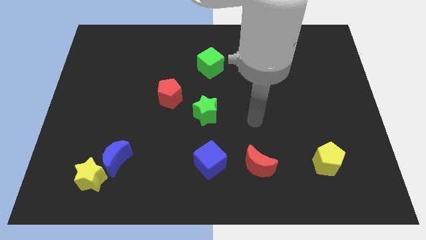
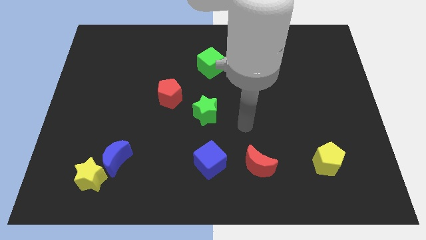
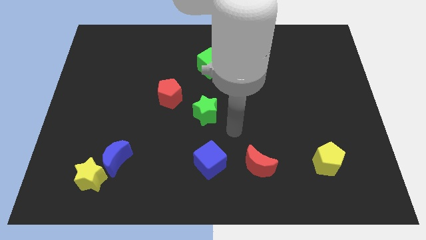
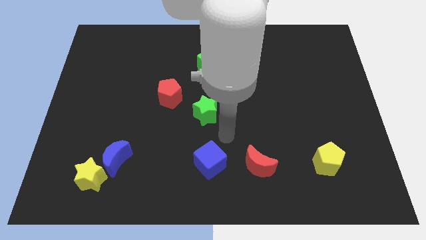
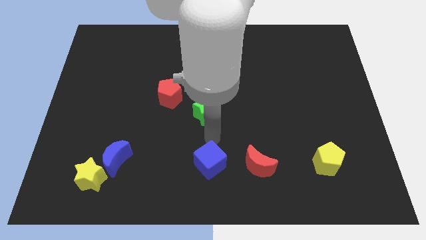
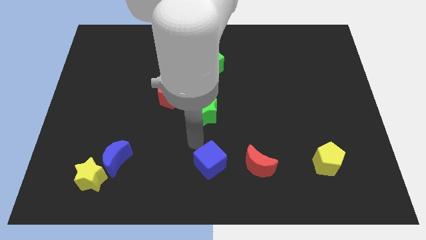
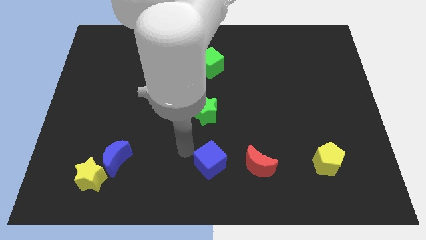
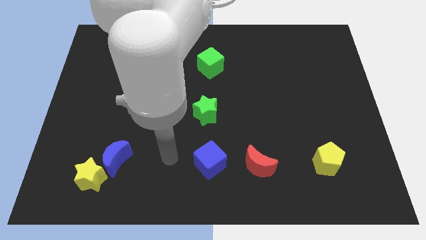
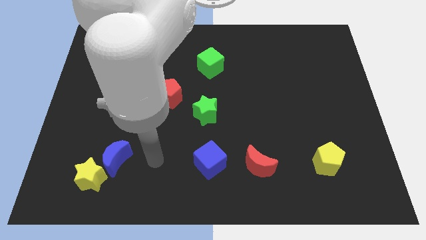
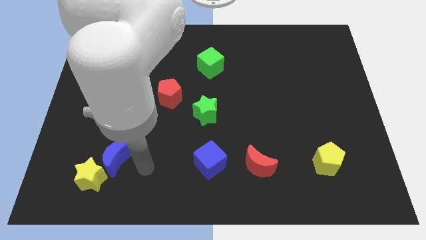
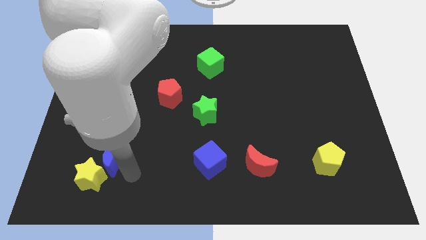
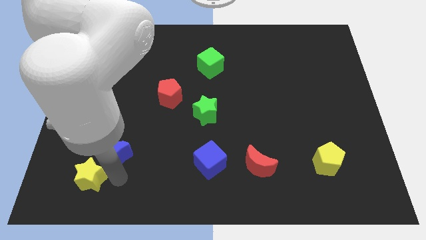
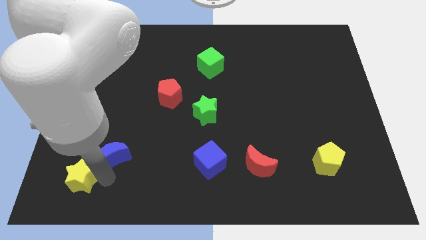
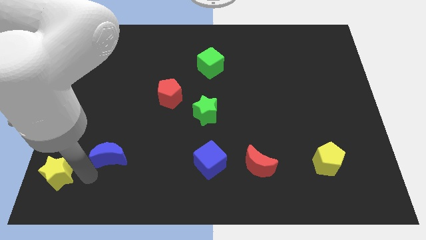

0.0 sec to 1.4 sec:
pull the blue moon apart from the yellow star

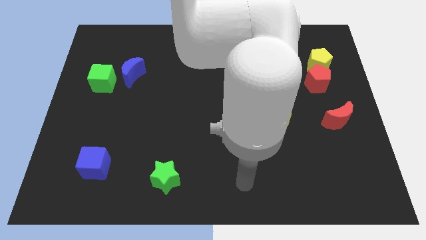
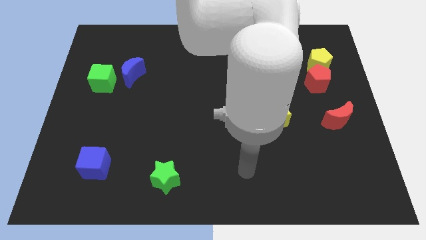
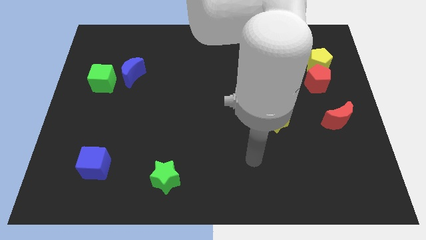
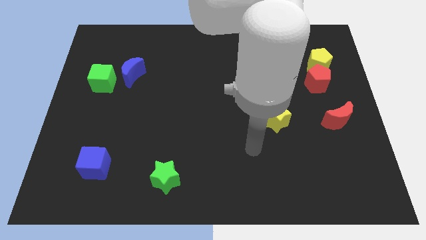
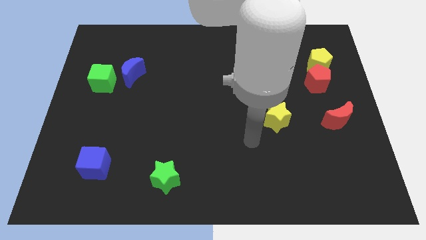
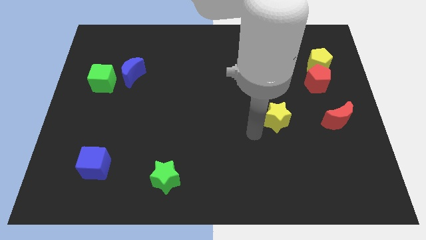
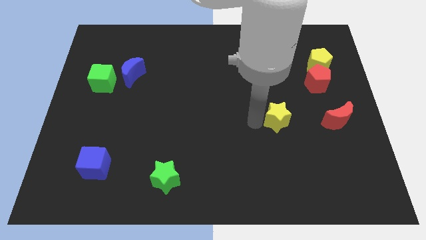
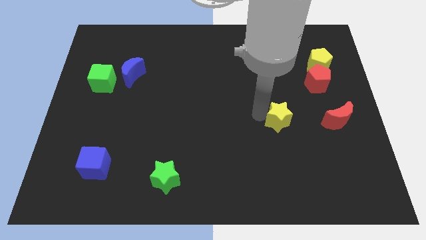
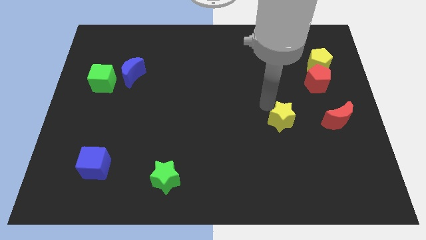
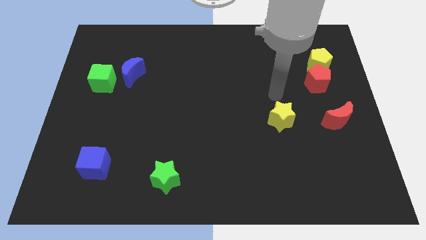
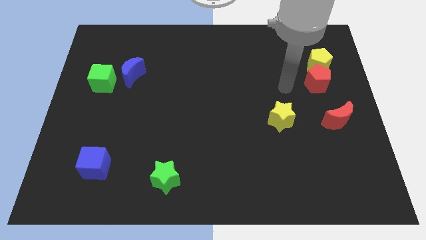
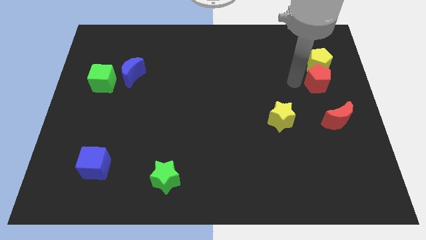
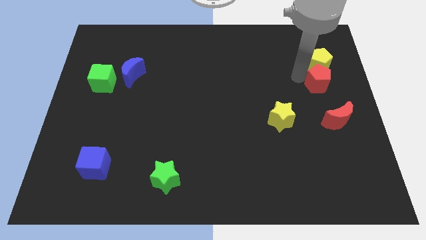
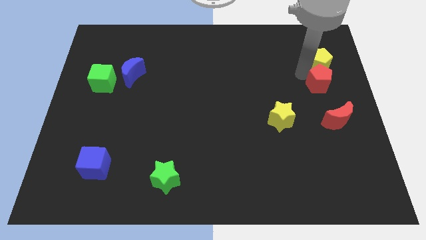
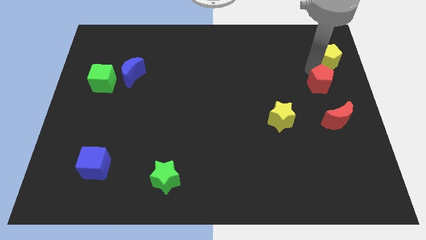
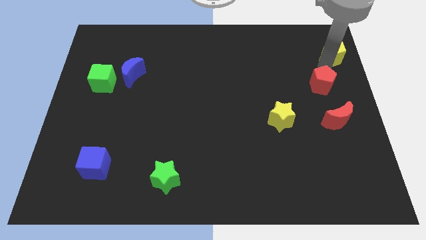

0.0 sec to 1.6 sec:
pull the red pentagon apart from the yellow pentagon

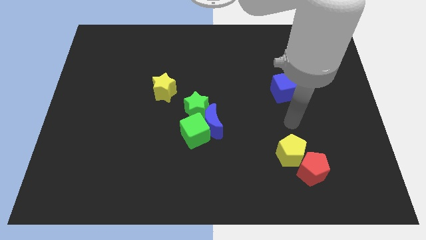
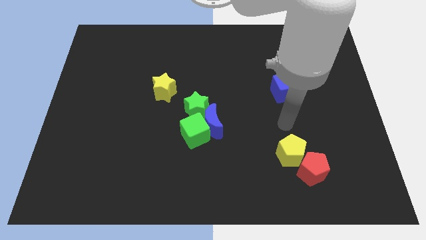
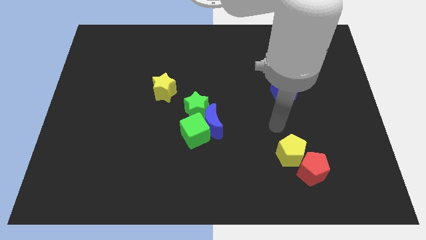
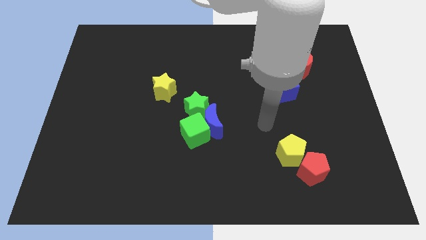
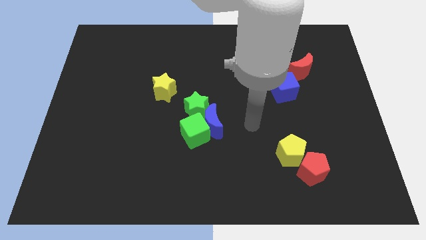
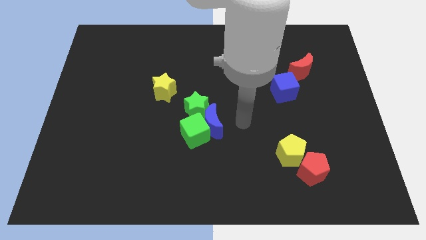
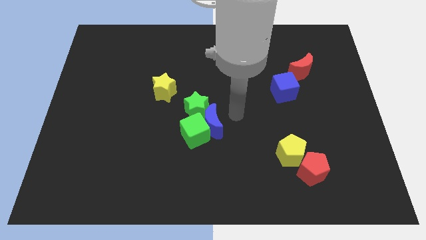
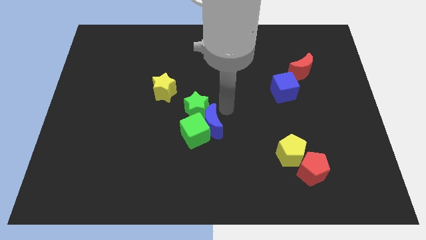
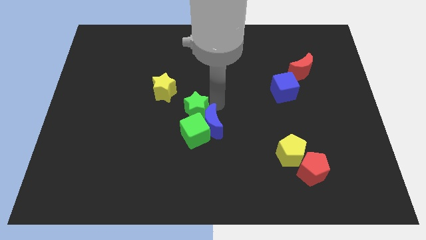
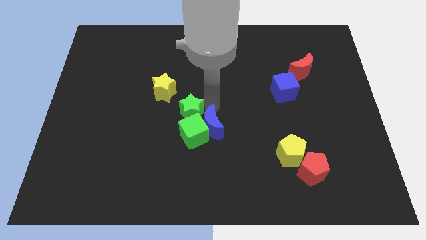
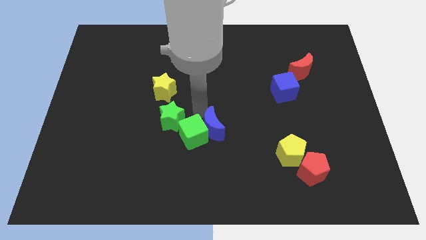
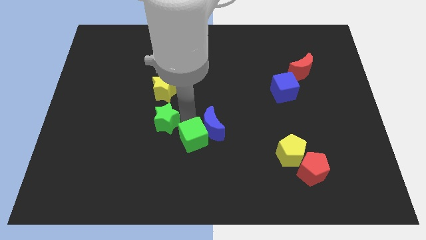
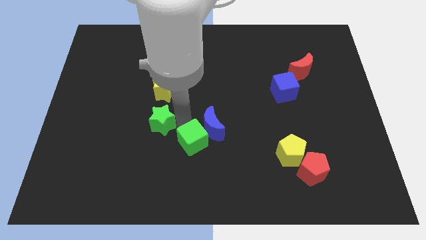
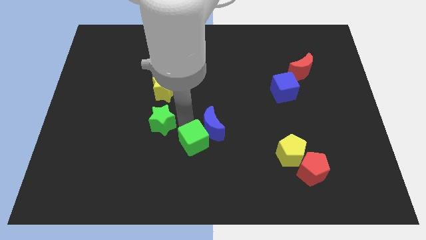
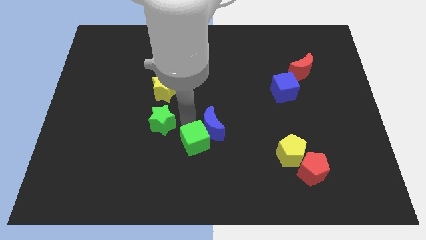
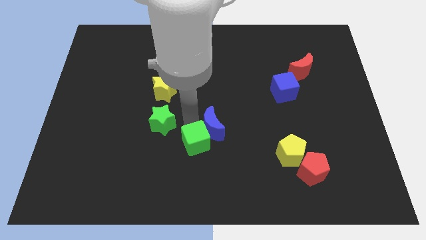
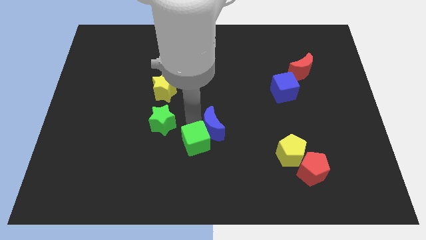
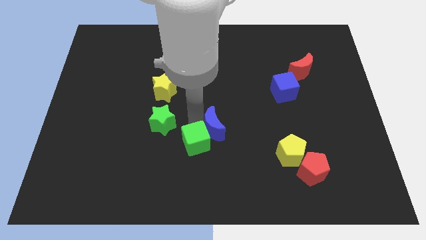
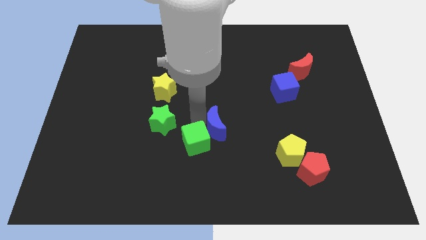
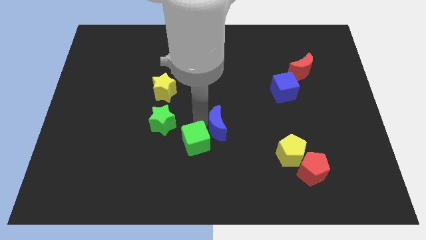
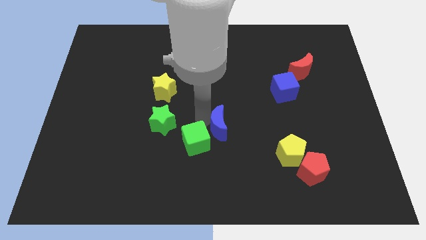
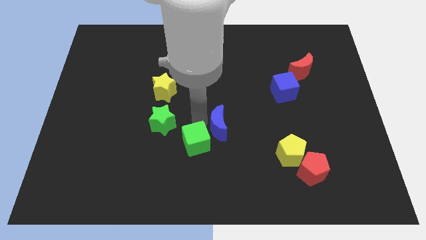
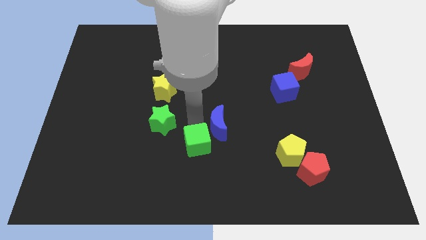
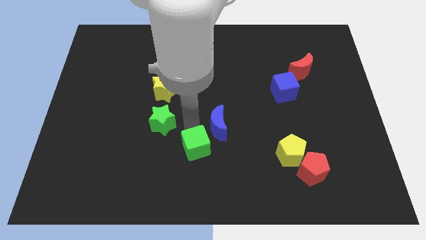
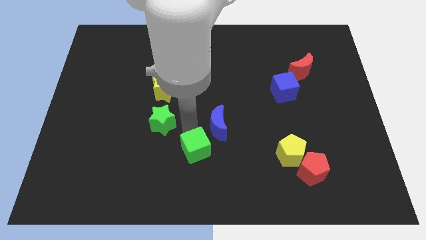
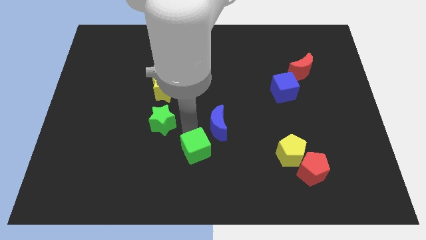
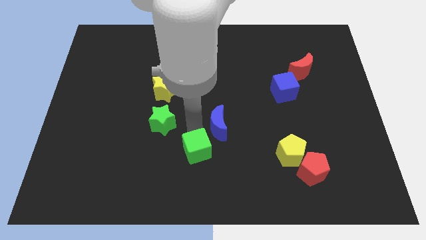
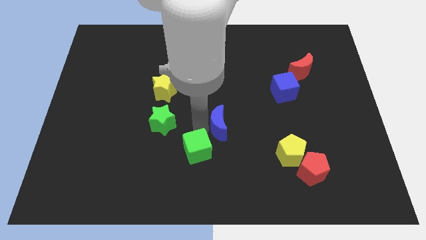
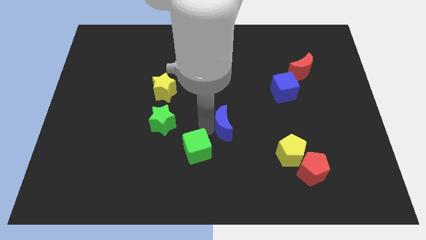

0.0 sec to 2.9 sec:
pull the blue moon apart from the green cube and green star

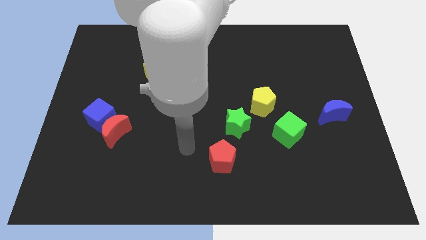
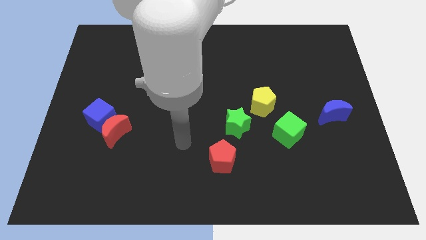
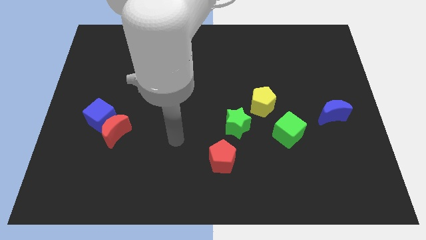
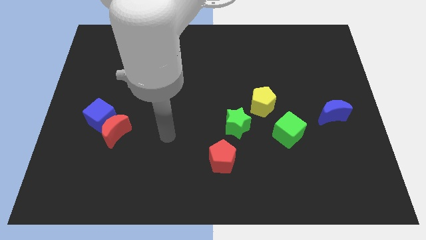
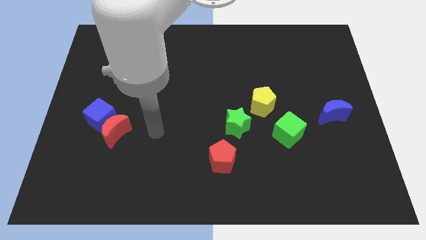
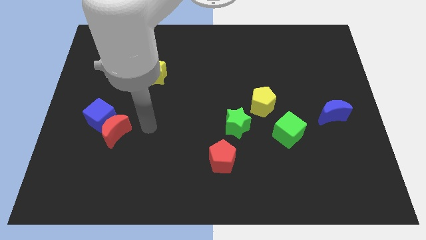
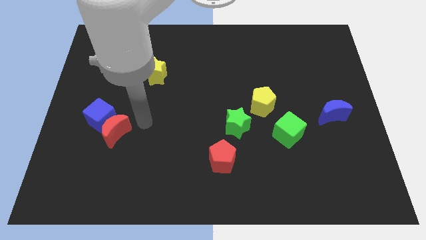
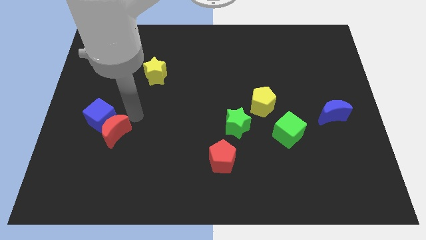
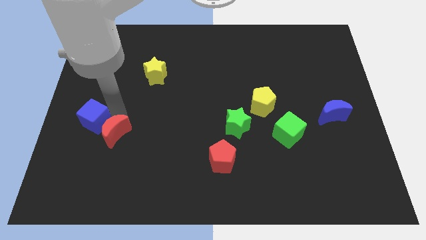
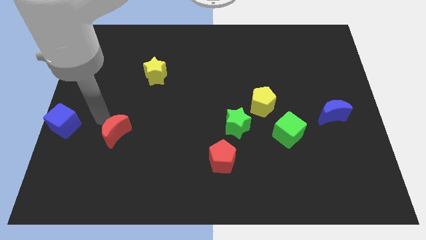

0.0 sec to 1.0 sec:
separate the red moon from the blue cube

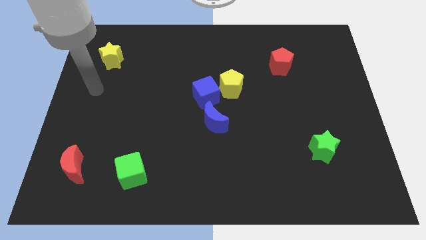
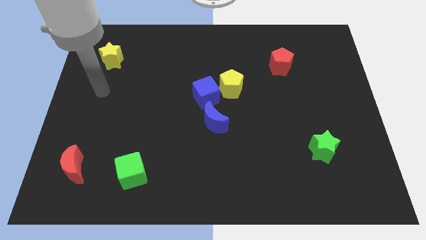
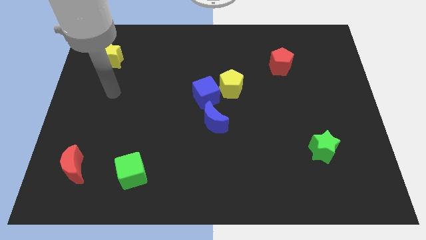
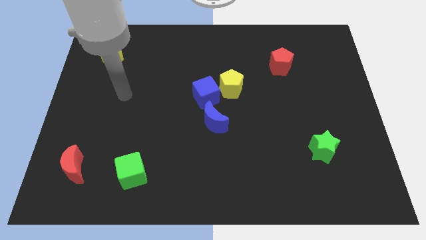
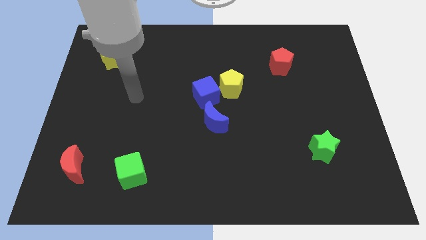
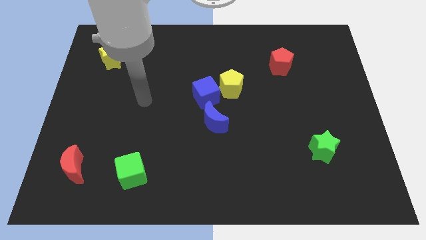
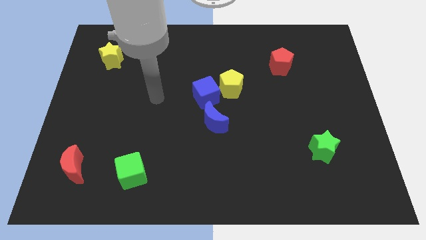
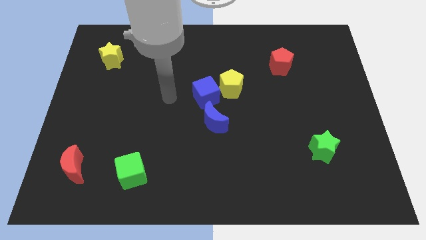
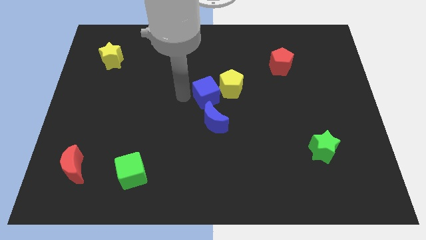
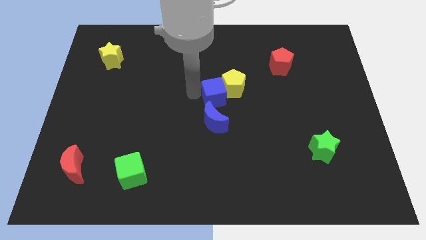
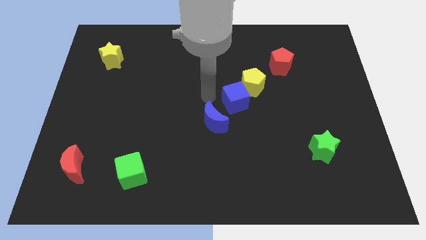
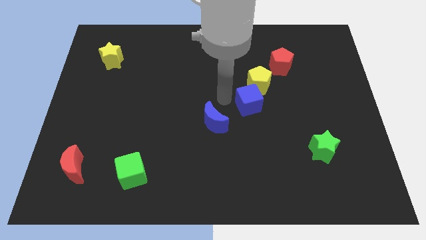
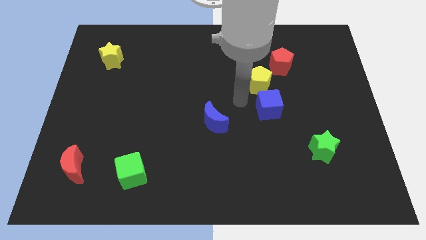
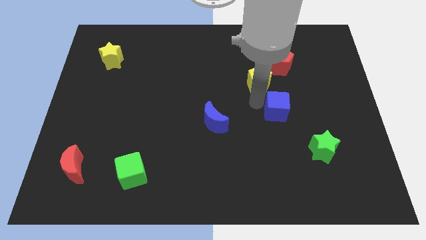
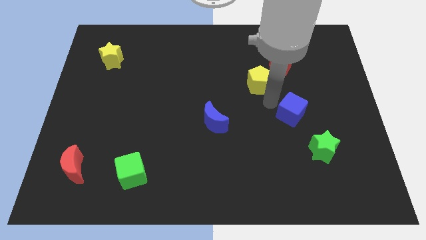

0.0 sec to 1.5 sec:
move the yellow pentagon away from the blue cube

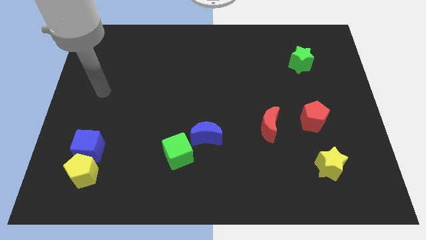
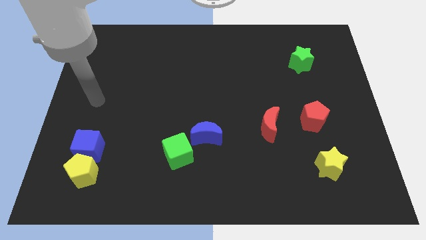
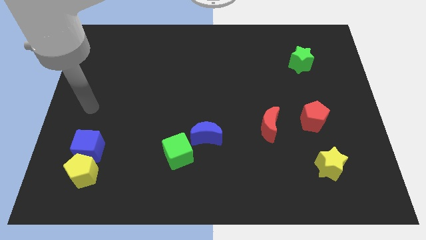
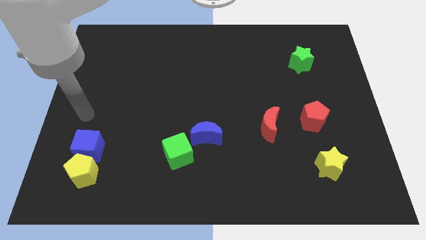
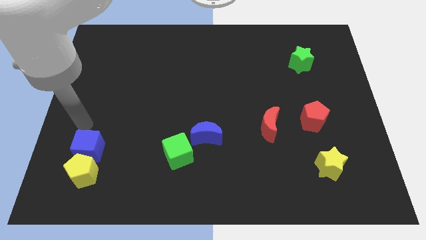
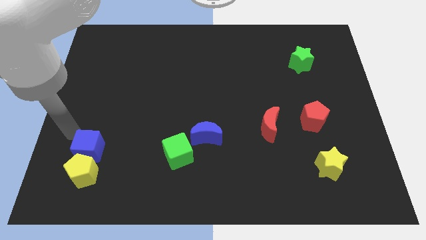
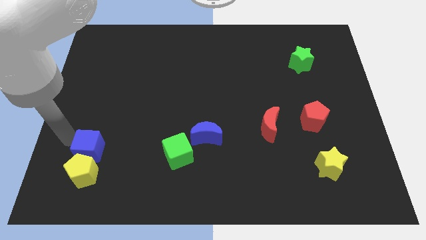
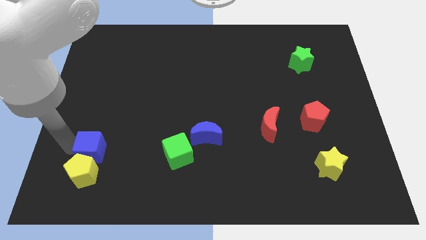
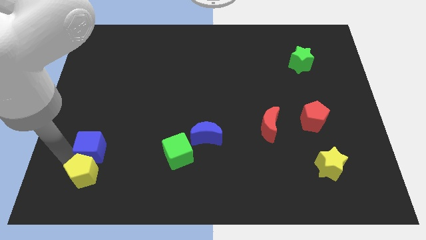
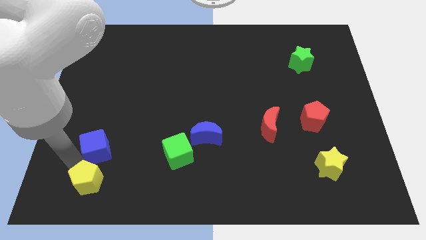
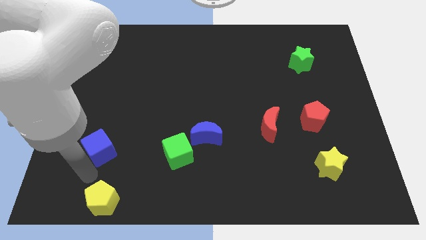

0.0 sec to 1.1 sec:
separate the blue cube from the yellow pentagon
